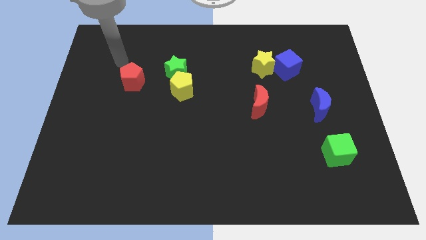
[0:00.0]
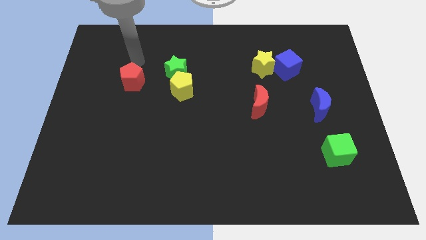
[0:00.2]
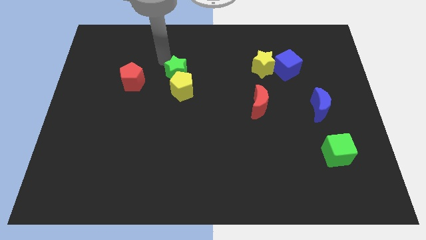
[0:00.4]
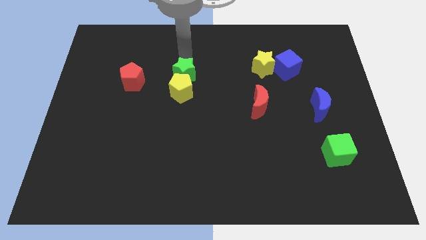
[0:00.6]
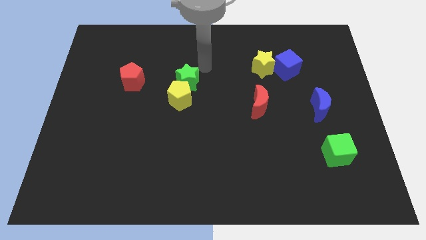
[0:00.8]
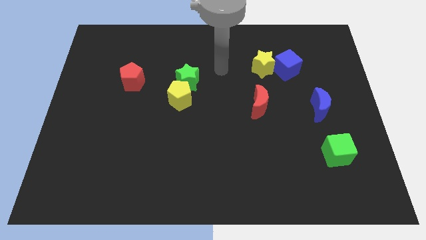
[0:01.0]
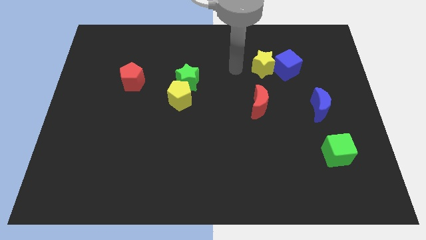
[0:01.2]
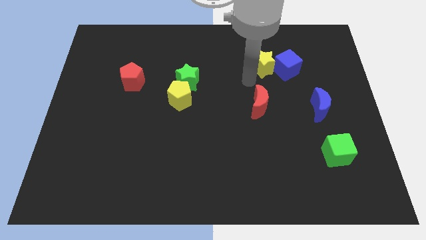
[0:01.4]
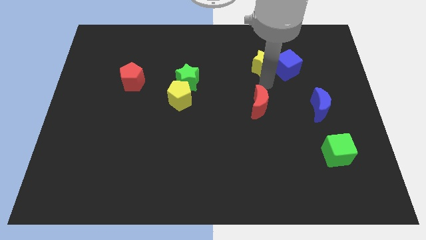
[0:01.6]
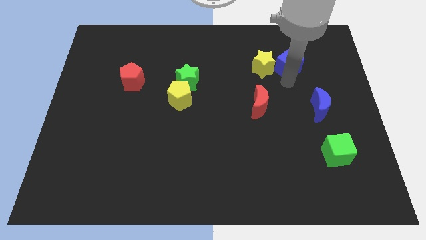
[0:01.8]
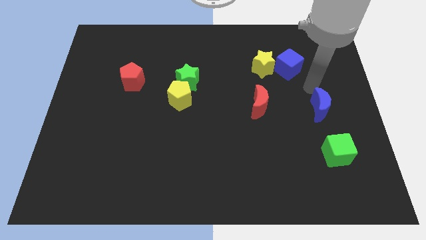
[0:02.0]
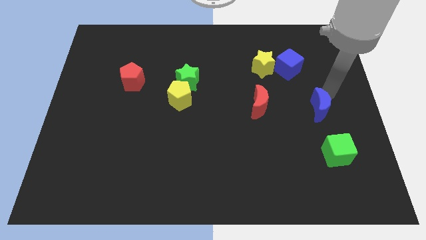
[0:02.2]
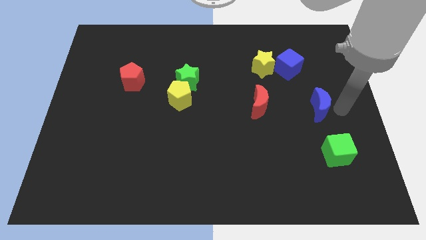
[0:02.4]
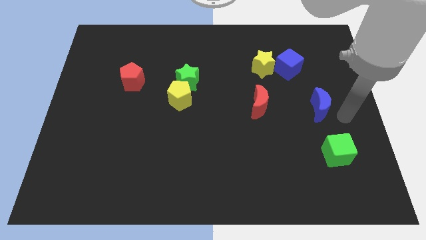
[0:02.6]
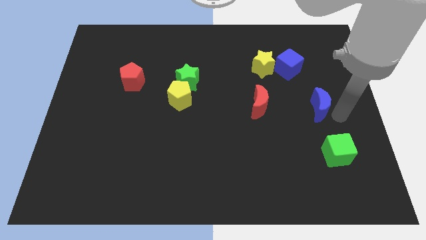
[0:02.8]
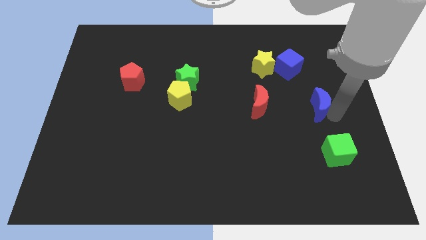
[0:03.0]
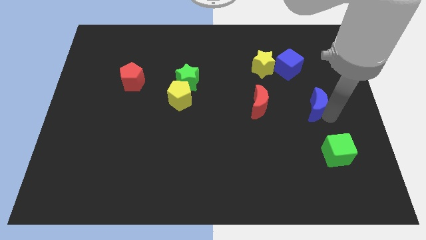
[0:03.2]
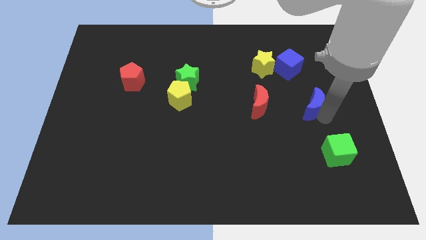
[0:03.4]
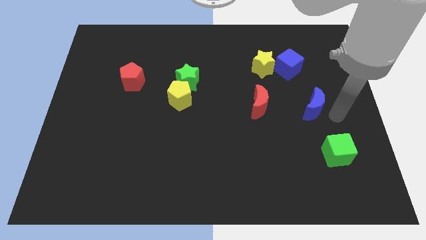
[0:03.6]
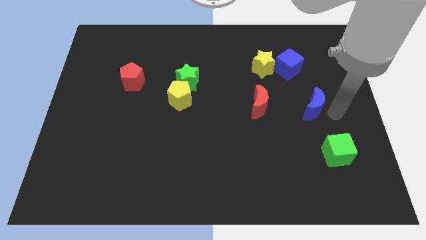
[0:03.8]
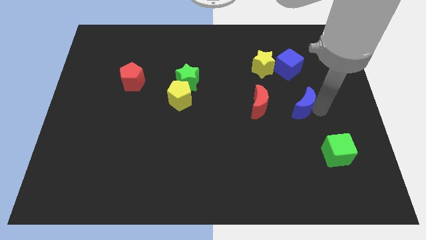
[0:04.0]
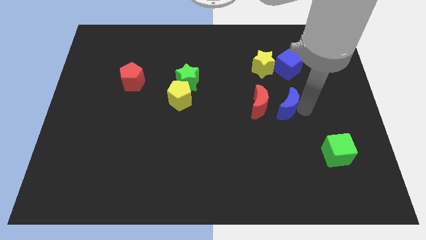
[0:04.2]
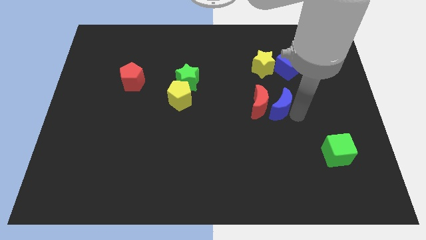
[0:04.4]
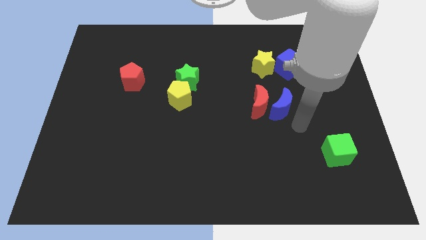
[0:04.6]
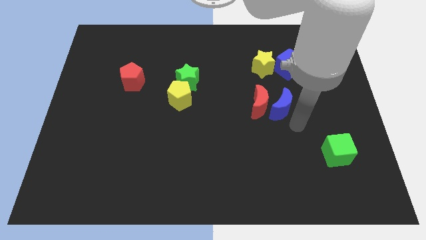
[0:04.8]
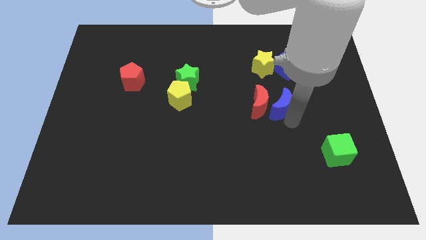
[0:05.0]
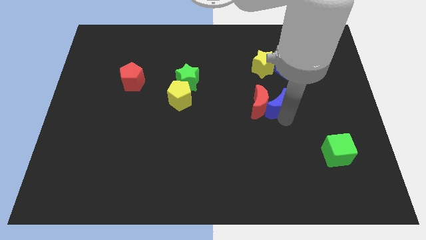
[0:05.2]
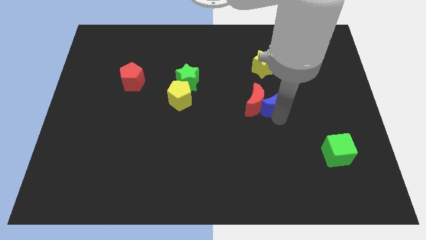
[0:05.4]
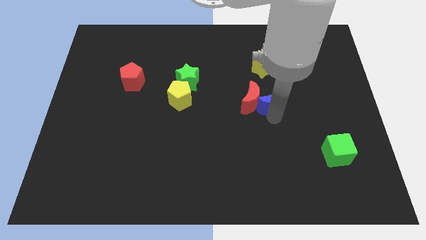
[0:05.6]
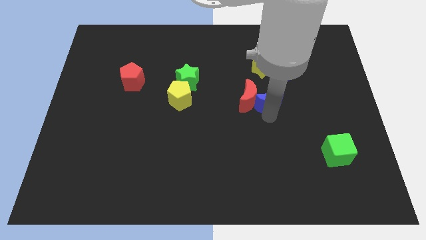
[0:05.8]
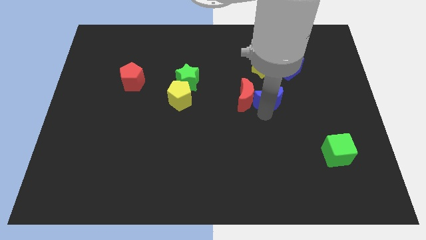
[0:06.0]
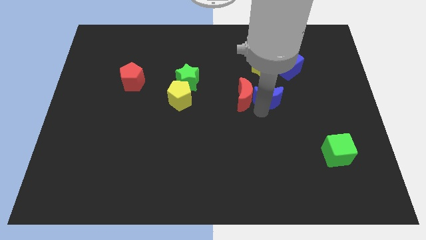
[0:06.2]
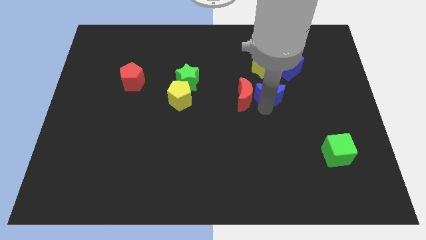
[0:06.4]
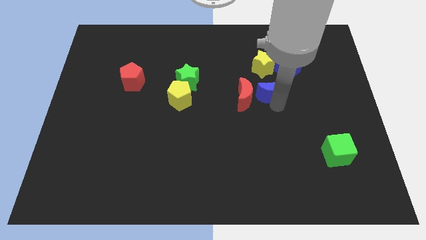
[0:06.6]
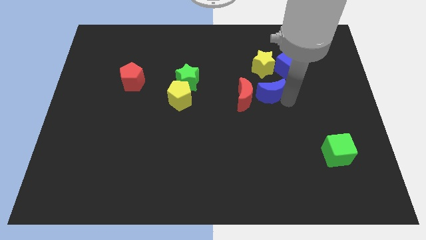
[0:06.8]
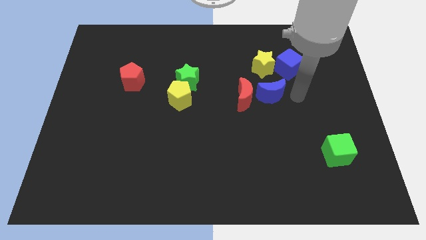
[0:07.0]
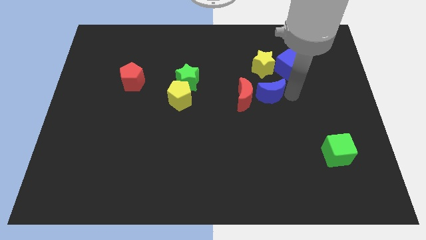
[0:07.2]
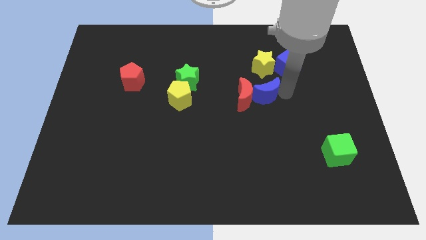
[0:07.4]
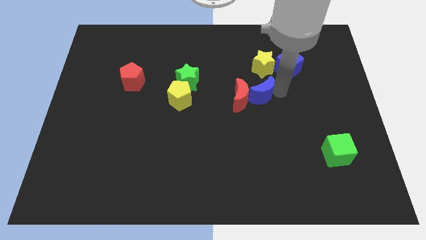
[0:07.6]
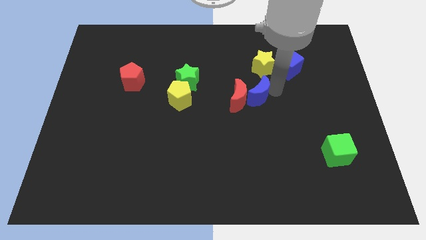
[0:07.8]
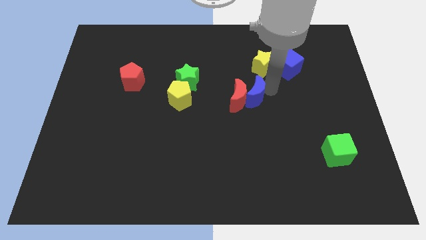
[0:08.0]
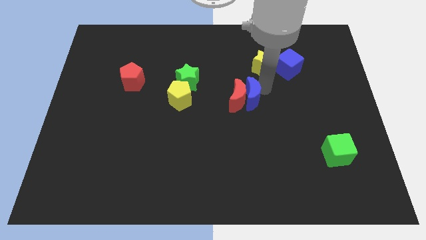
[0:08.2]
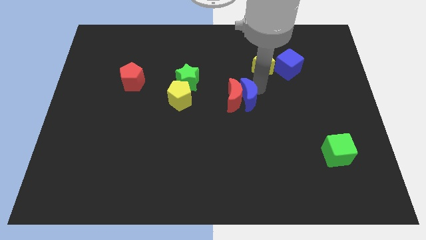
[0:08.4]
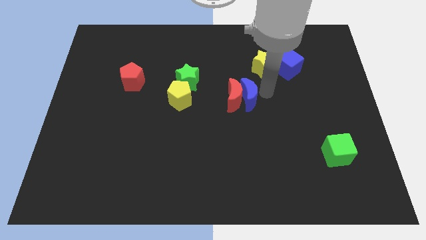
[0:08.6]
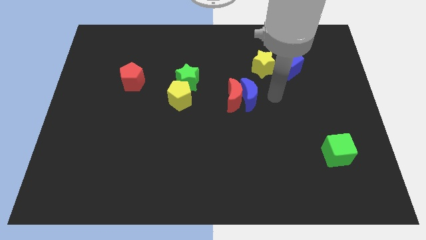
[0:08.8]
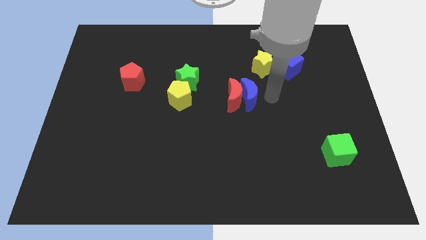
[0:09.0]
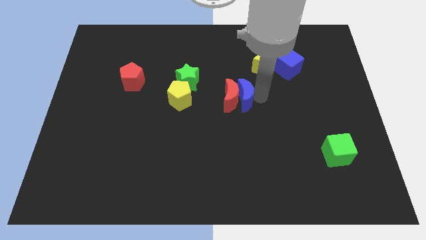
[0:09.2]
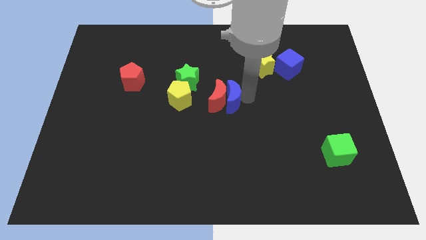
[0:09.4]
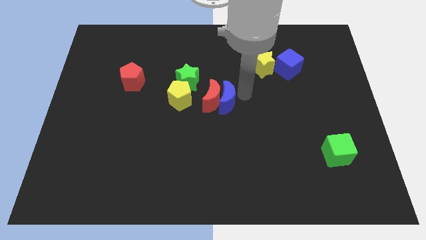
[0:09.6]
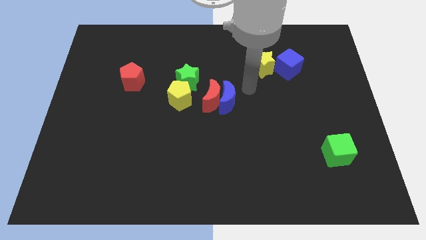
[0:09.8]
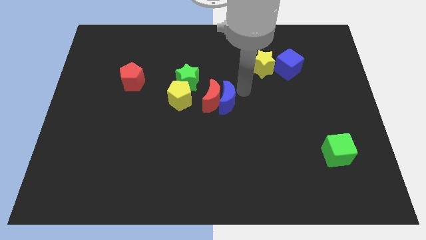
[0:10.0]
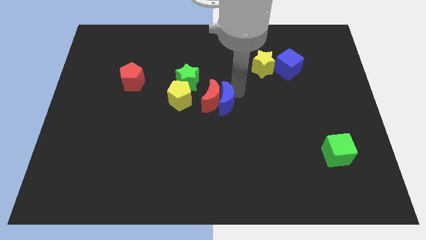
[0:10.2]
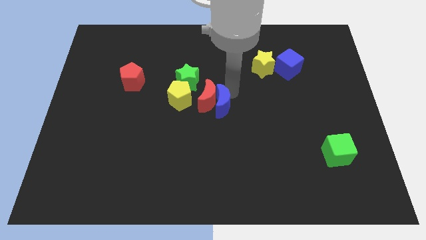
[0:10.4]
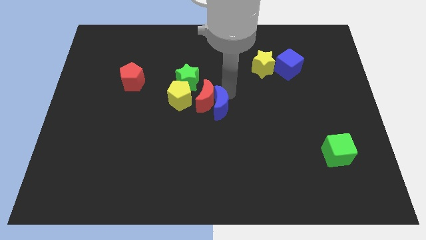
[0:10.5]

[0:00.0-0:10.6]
put the blue moon to the bottom right of the yellow pentagon

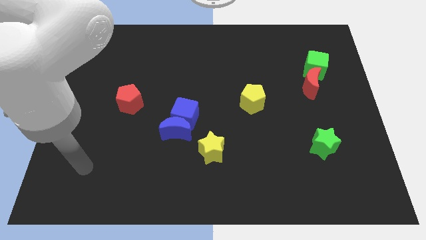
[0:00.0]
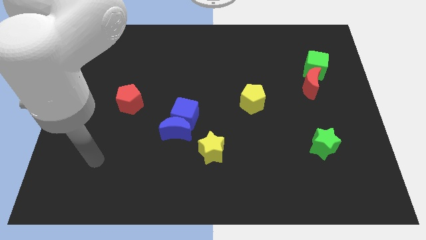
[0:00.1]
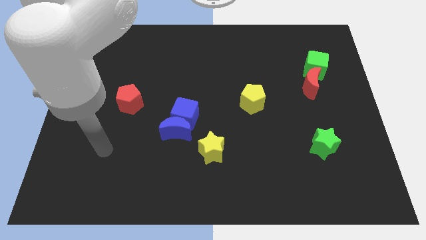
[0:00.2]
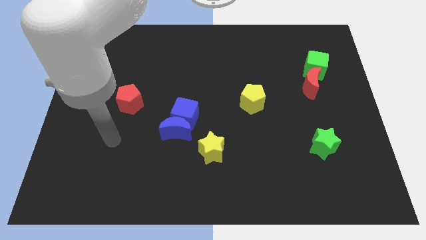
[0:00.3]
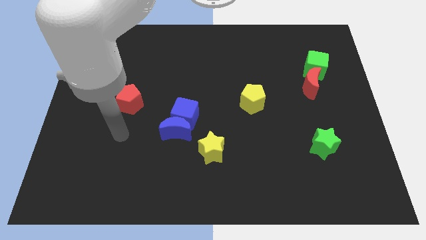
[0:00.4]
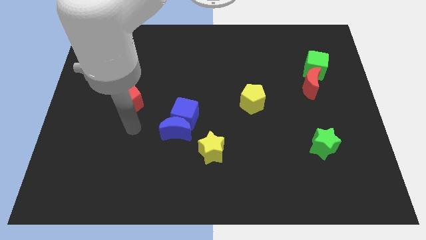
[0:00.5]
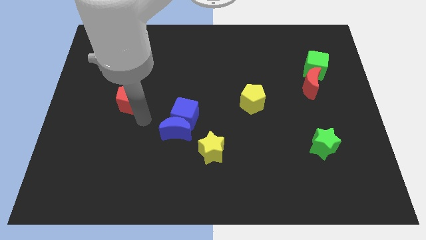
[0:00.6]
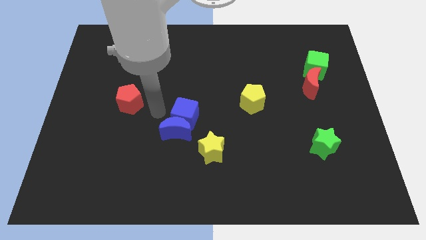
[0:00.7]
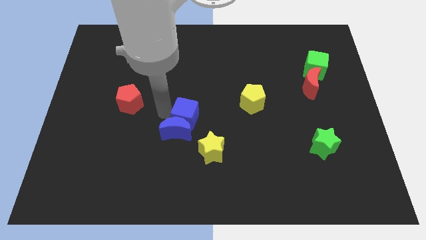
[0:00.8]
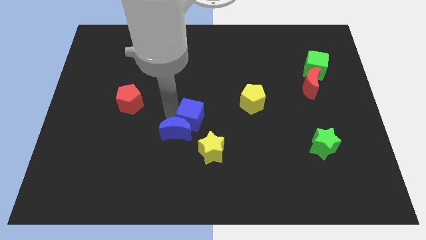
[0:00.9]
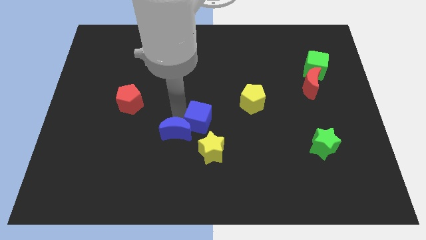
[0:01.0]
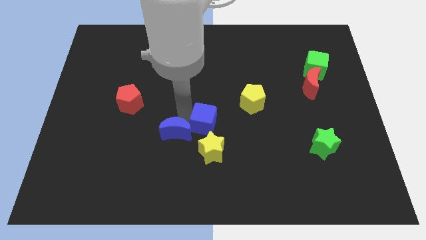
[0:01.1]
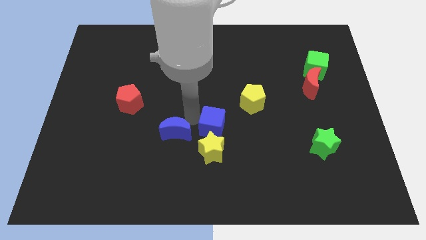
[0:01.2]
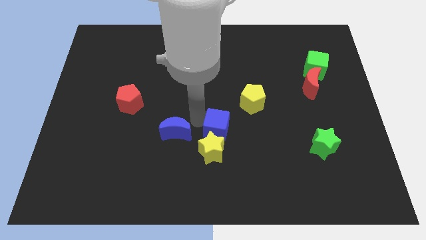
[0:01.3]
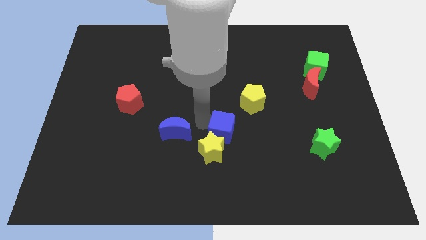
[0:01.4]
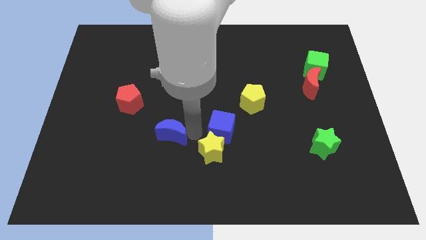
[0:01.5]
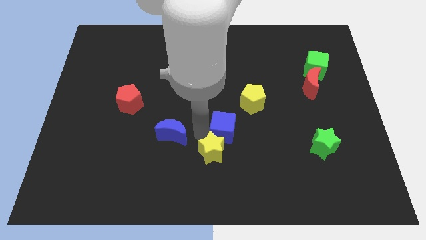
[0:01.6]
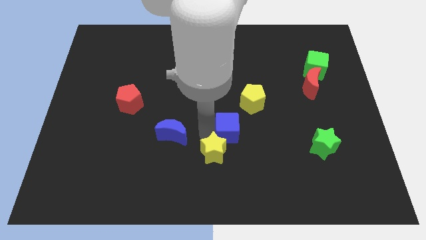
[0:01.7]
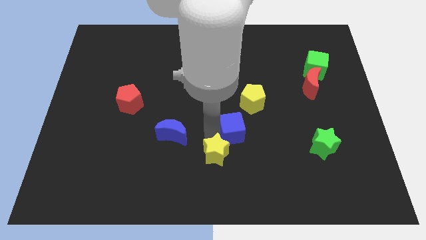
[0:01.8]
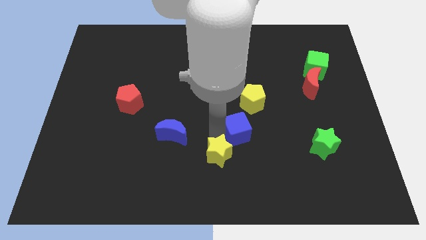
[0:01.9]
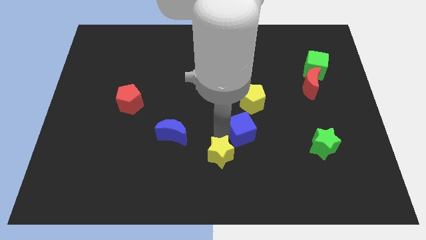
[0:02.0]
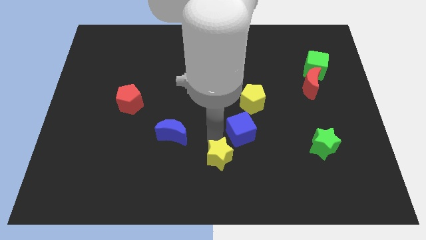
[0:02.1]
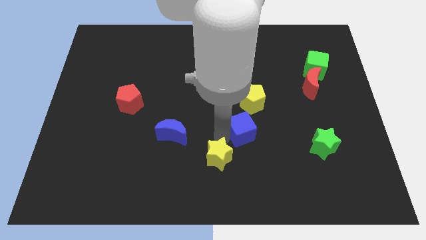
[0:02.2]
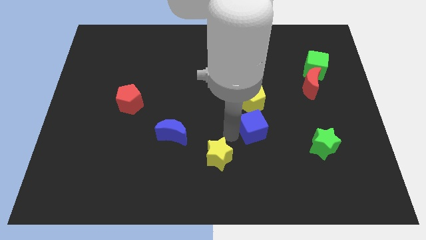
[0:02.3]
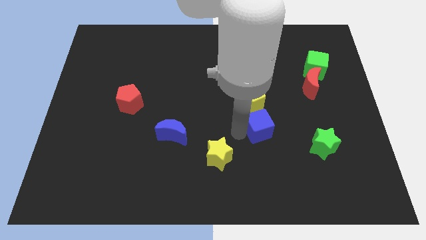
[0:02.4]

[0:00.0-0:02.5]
slide the blue cube to the bottom right side of the yellow pentagon
